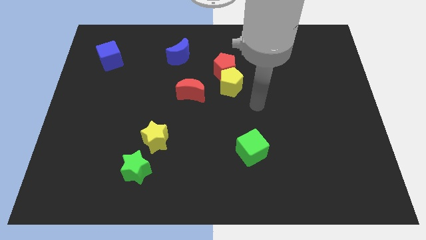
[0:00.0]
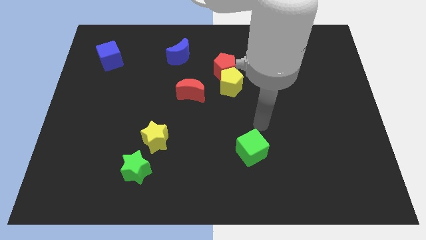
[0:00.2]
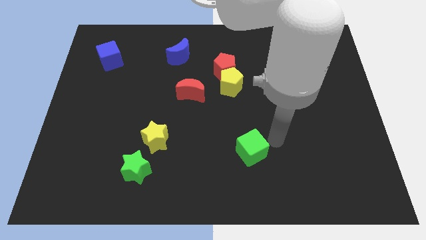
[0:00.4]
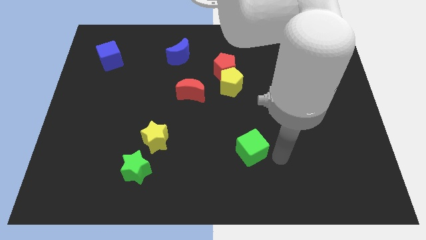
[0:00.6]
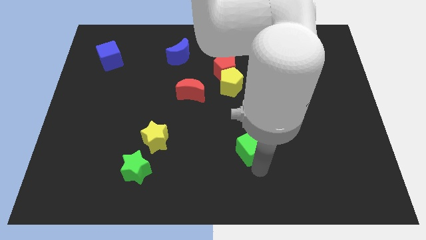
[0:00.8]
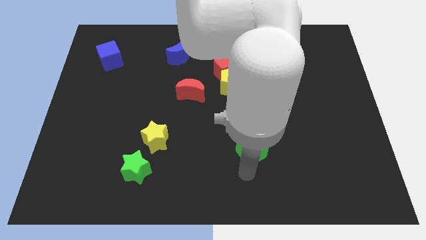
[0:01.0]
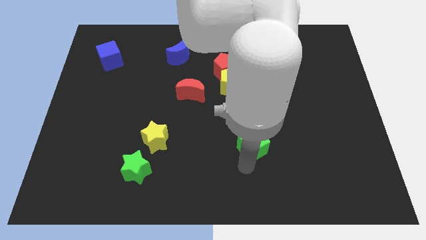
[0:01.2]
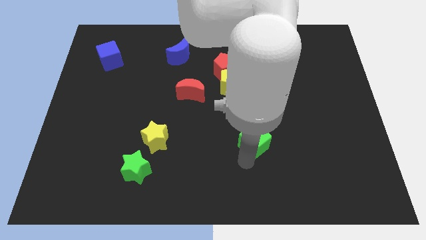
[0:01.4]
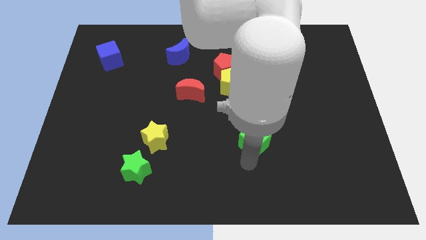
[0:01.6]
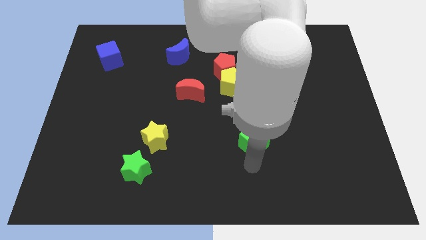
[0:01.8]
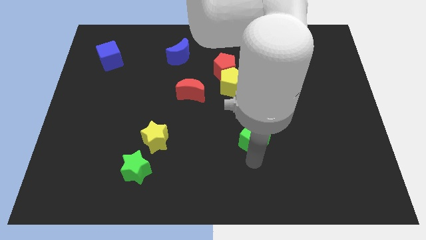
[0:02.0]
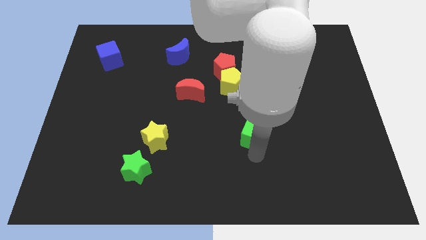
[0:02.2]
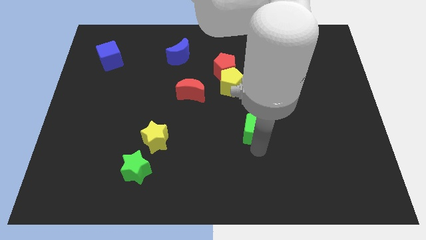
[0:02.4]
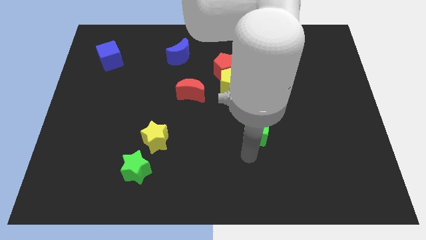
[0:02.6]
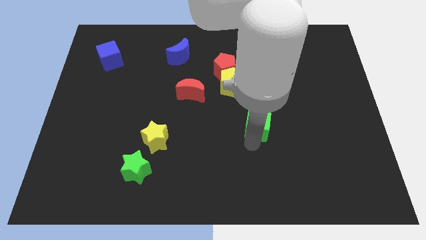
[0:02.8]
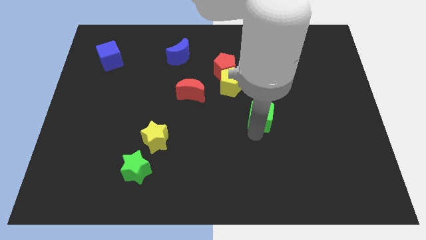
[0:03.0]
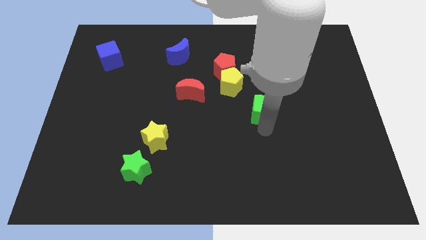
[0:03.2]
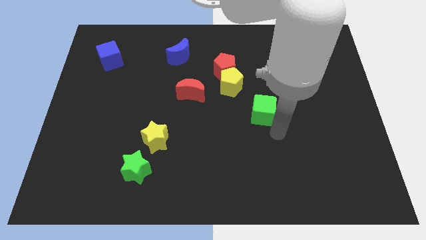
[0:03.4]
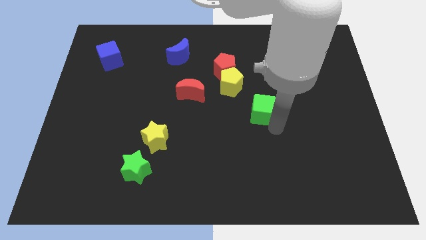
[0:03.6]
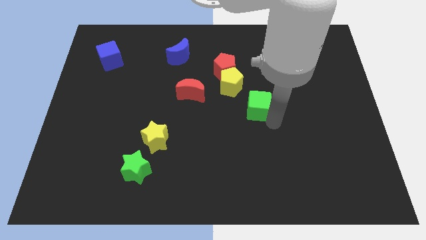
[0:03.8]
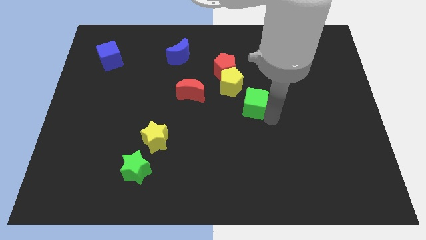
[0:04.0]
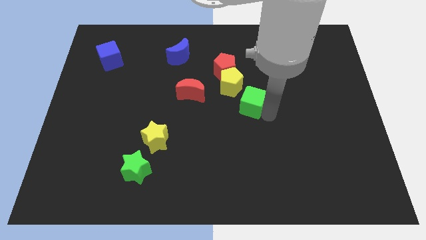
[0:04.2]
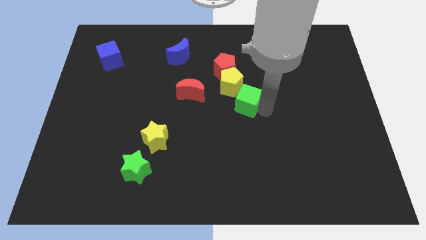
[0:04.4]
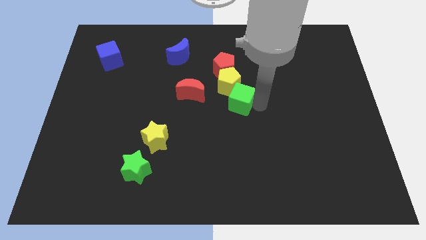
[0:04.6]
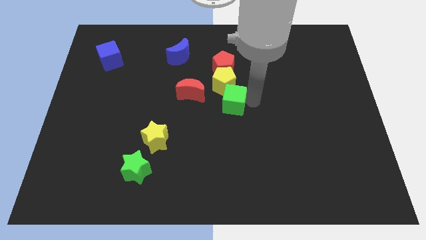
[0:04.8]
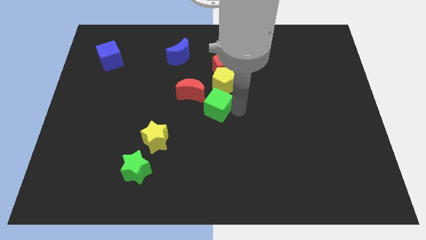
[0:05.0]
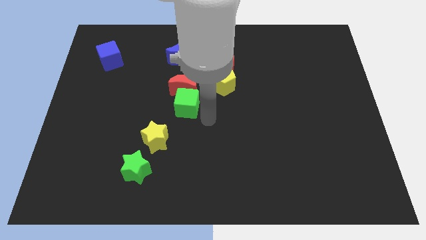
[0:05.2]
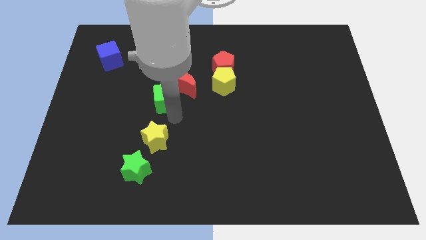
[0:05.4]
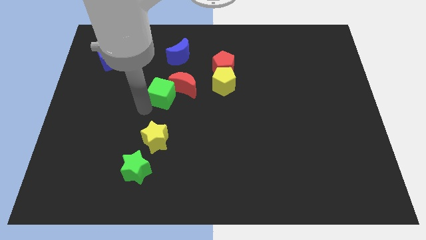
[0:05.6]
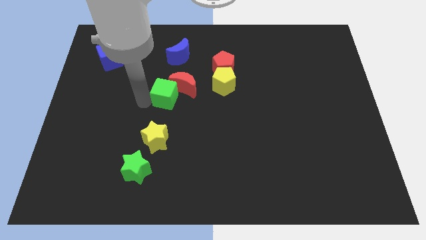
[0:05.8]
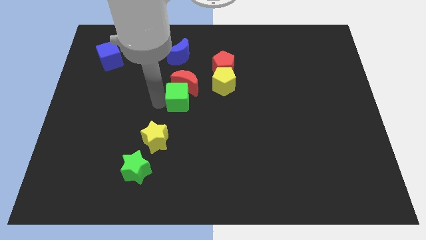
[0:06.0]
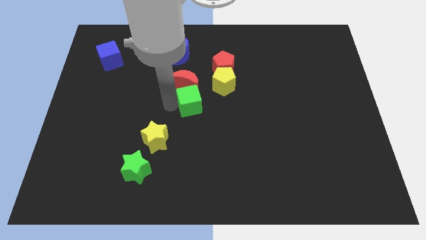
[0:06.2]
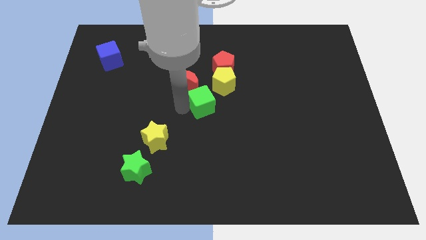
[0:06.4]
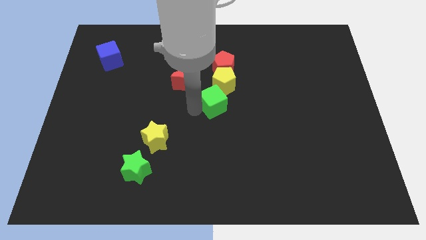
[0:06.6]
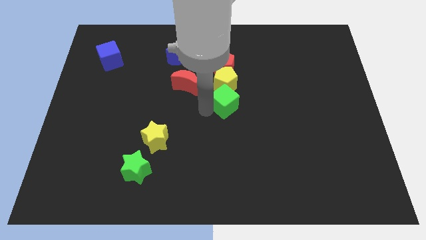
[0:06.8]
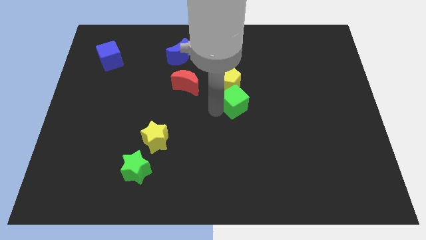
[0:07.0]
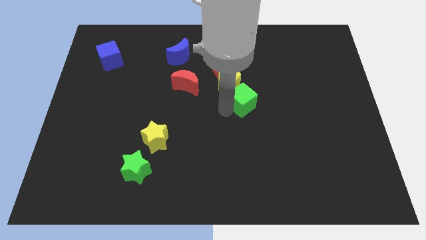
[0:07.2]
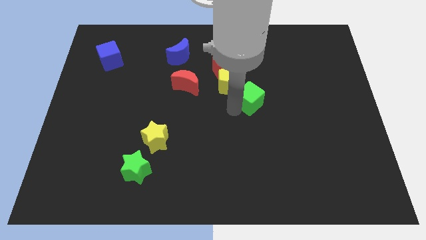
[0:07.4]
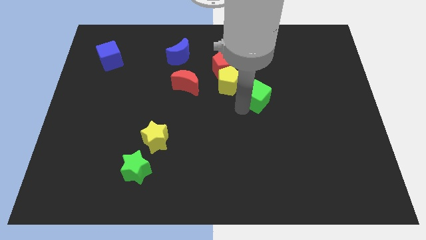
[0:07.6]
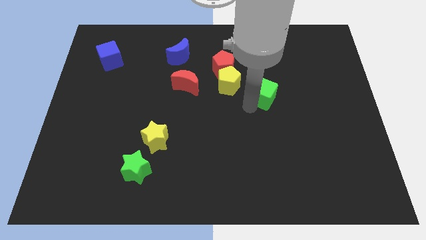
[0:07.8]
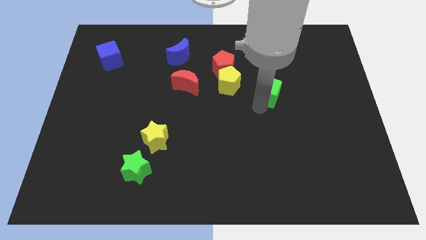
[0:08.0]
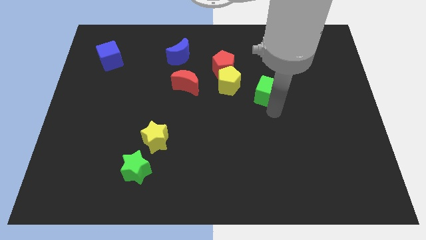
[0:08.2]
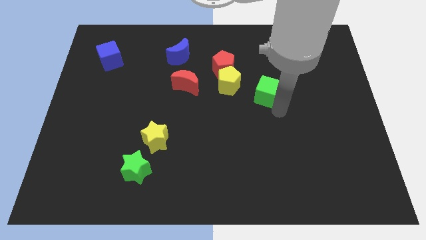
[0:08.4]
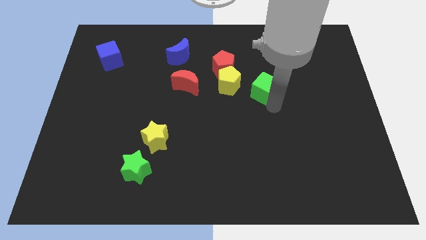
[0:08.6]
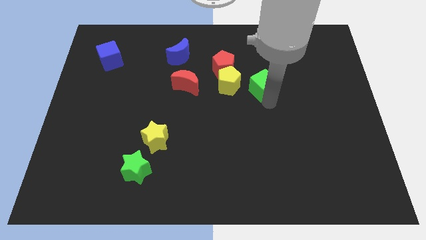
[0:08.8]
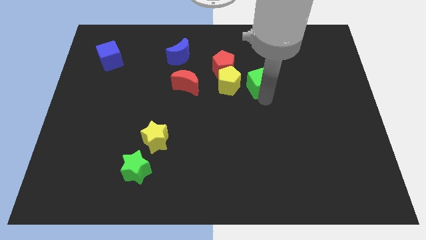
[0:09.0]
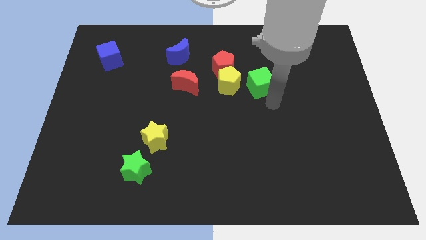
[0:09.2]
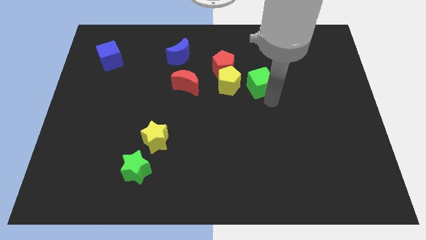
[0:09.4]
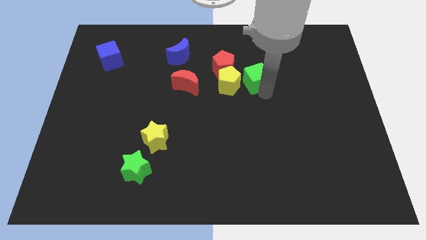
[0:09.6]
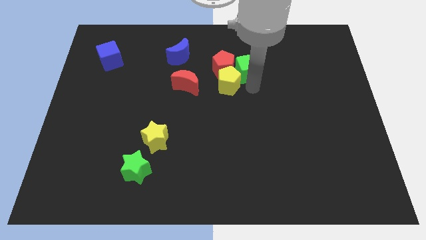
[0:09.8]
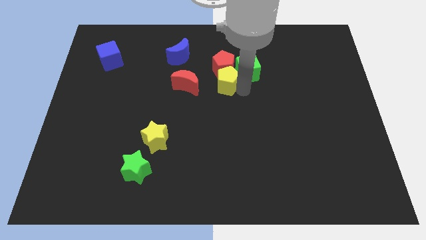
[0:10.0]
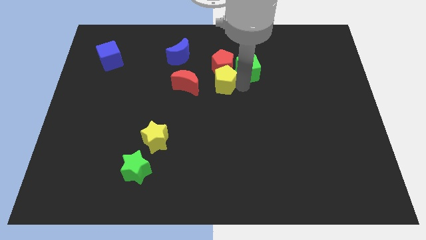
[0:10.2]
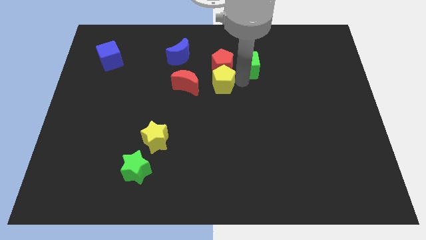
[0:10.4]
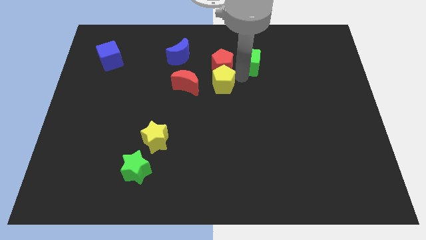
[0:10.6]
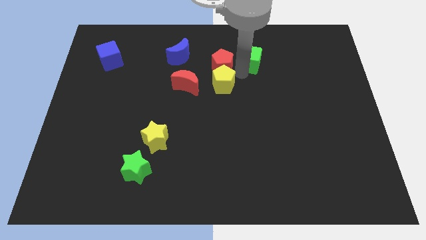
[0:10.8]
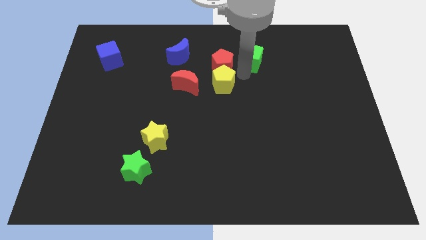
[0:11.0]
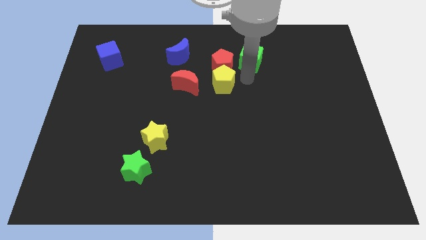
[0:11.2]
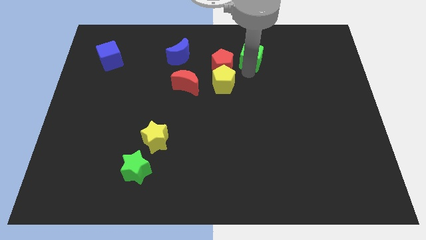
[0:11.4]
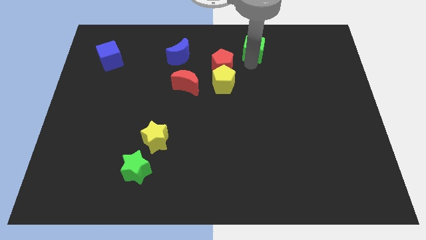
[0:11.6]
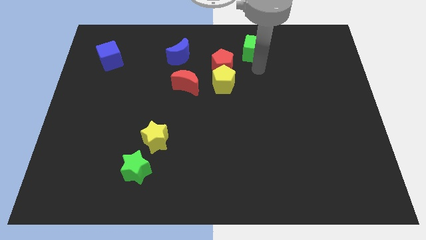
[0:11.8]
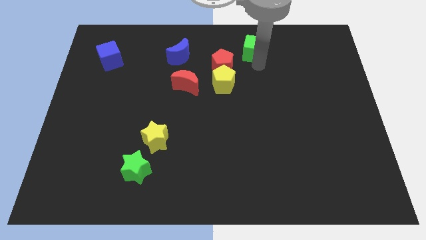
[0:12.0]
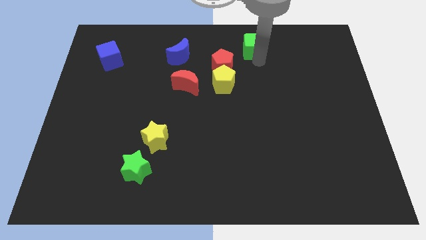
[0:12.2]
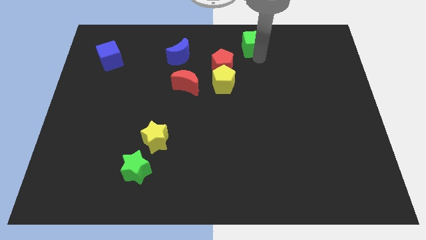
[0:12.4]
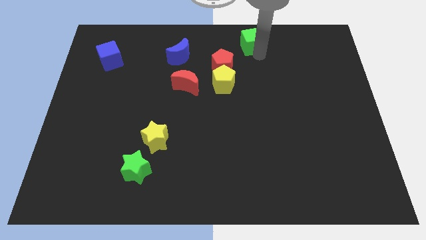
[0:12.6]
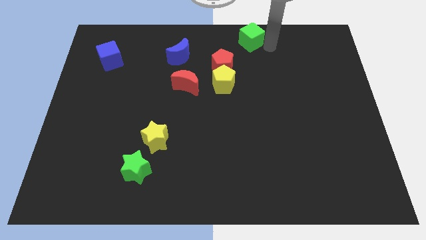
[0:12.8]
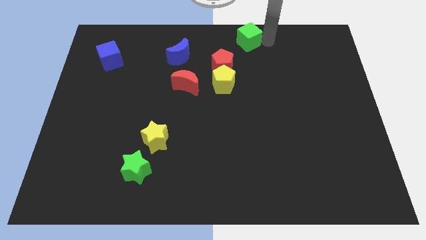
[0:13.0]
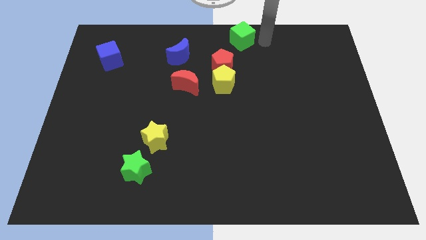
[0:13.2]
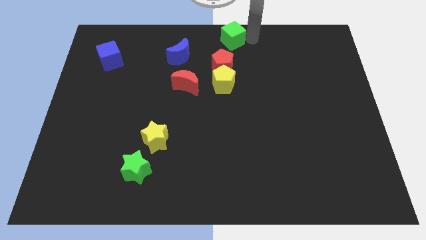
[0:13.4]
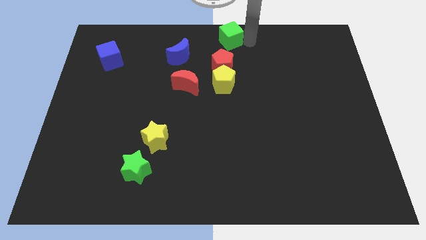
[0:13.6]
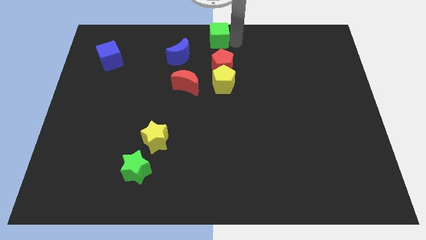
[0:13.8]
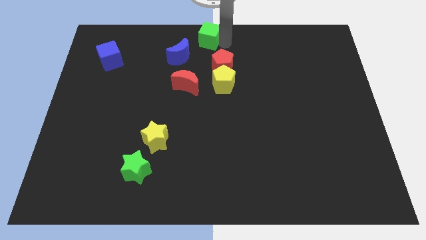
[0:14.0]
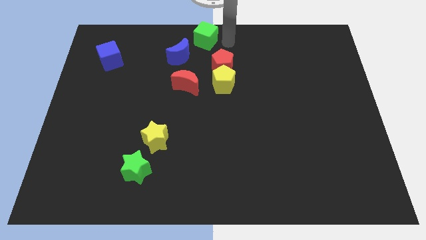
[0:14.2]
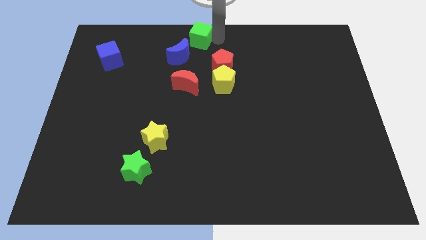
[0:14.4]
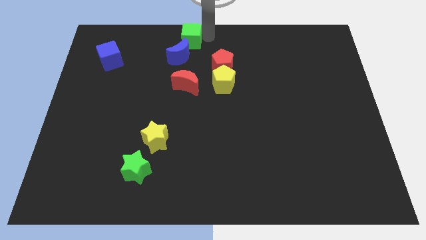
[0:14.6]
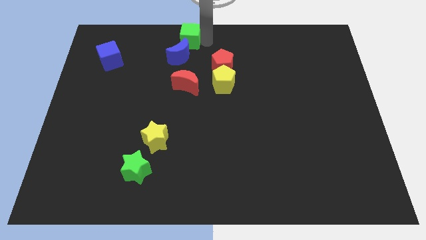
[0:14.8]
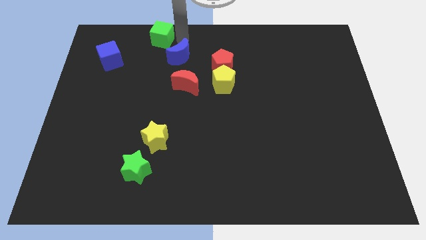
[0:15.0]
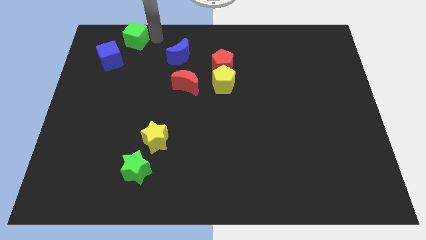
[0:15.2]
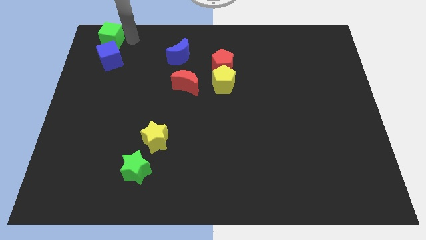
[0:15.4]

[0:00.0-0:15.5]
slide the green cube to the top left corner
